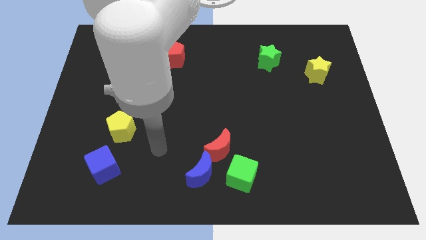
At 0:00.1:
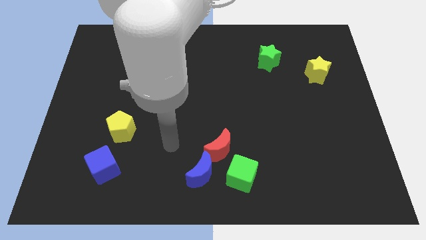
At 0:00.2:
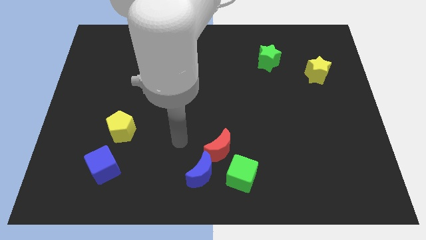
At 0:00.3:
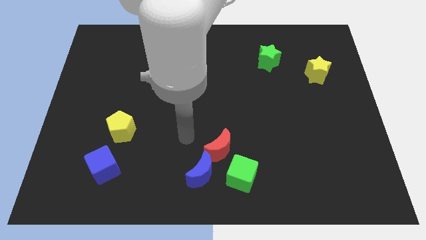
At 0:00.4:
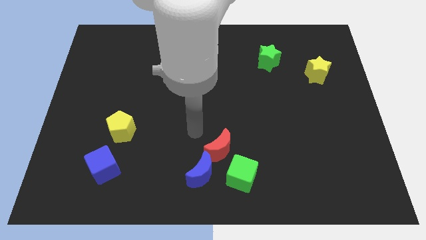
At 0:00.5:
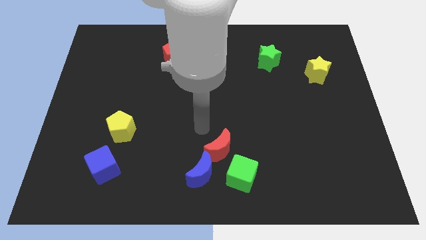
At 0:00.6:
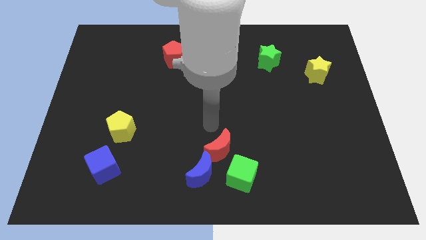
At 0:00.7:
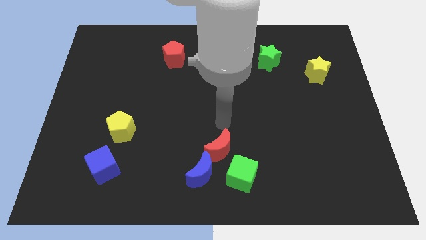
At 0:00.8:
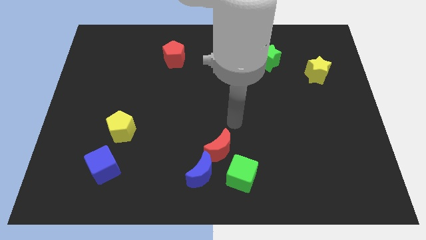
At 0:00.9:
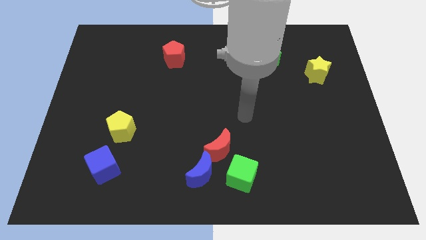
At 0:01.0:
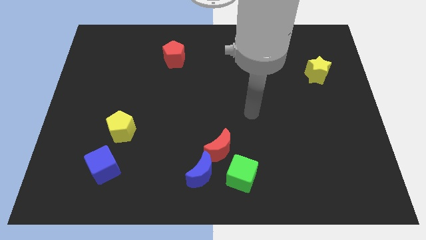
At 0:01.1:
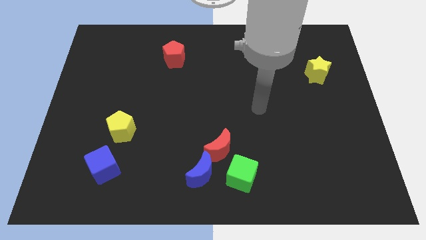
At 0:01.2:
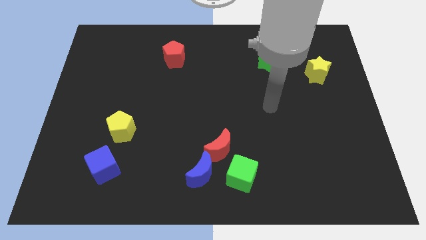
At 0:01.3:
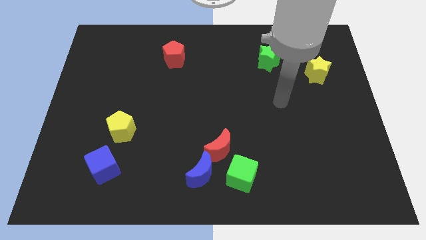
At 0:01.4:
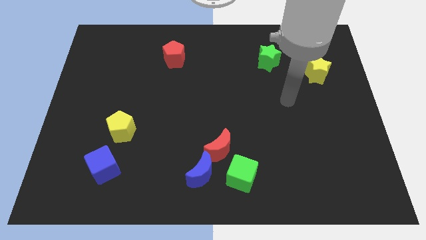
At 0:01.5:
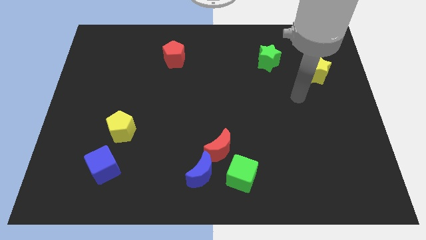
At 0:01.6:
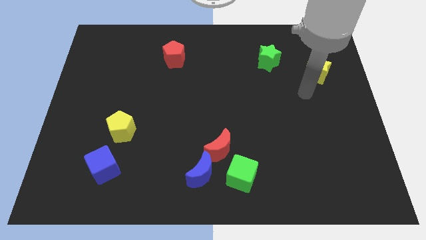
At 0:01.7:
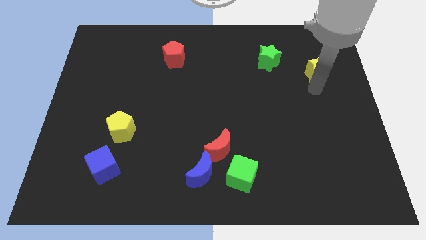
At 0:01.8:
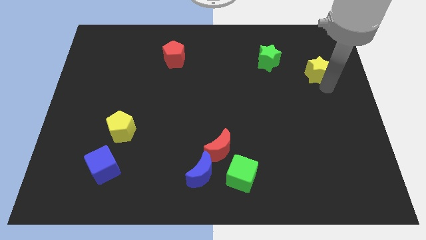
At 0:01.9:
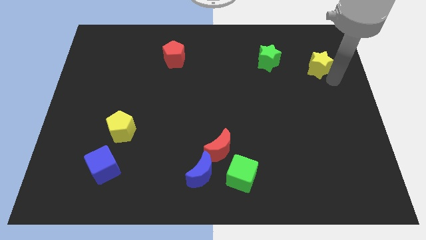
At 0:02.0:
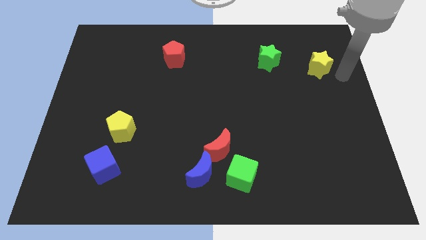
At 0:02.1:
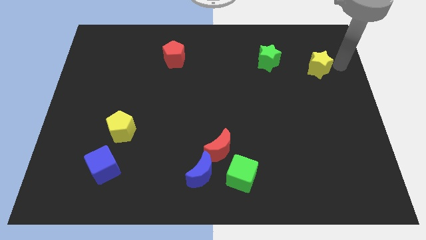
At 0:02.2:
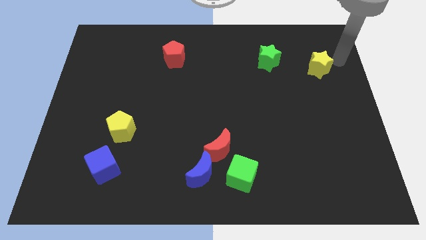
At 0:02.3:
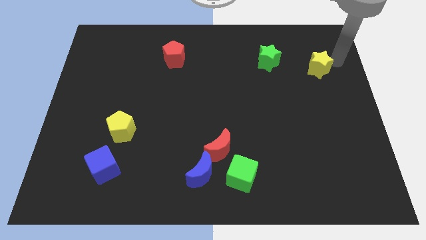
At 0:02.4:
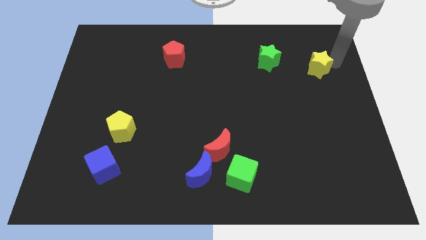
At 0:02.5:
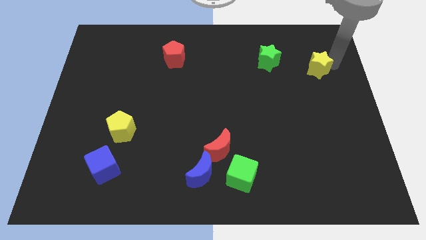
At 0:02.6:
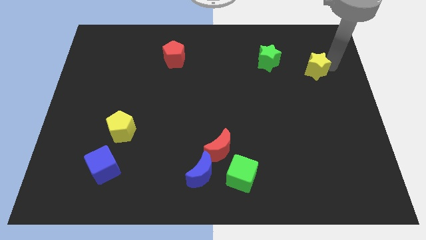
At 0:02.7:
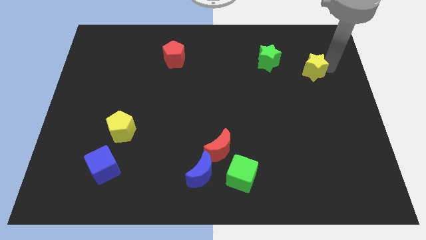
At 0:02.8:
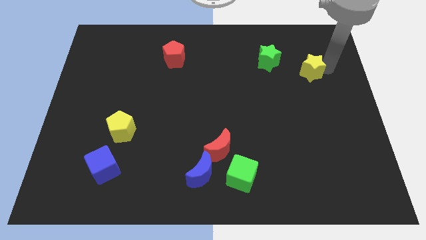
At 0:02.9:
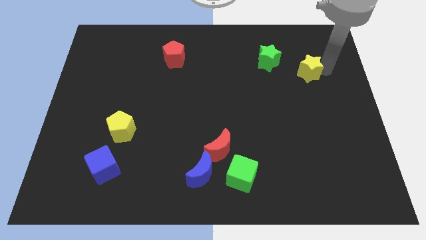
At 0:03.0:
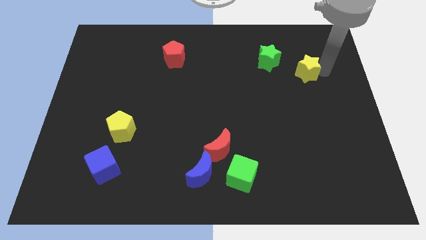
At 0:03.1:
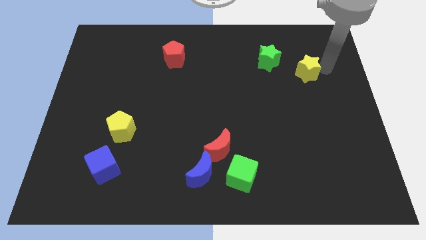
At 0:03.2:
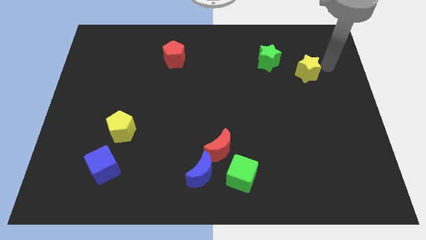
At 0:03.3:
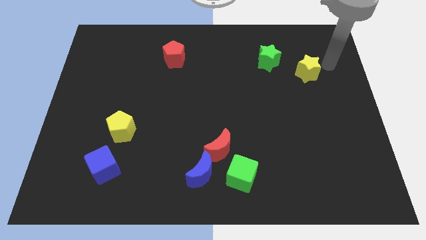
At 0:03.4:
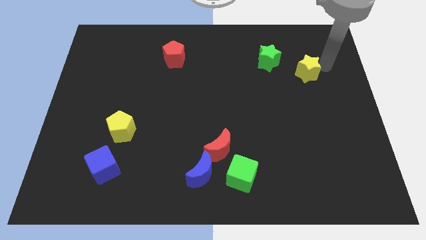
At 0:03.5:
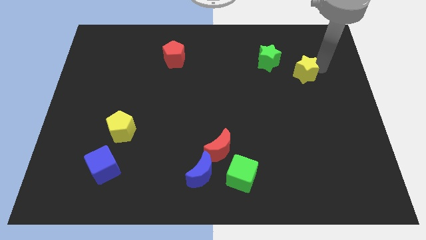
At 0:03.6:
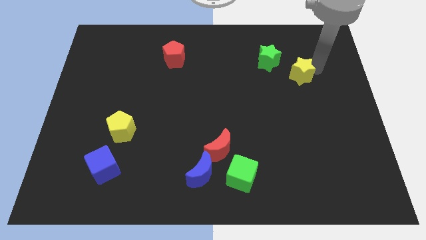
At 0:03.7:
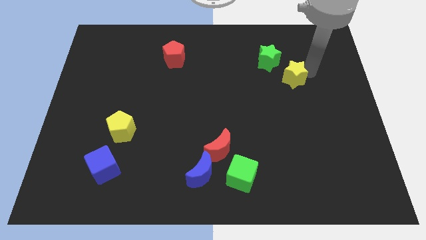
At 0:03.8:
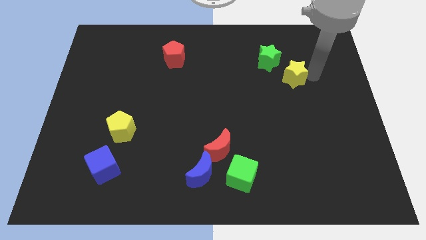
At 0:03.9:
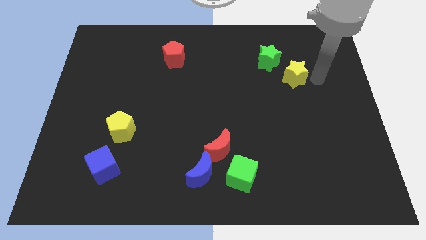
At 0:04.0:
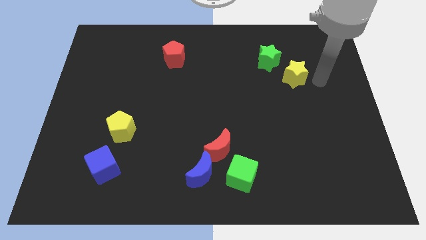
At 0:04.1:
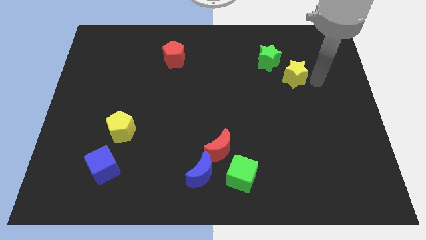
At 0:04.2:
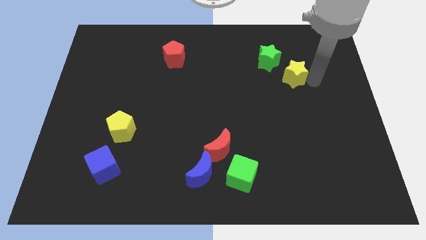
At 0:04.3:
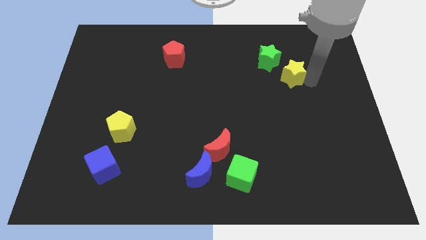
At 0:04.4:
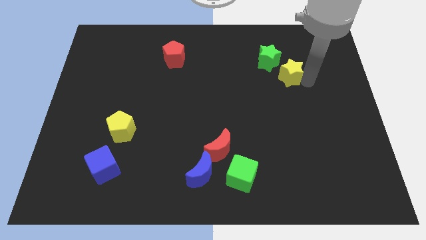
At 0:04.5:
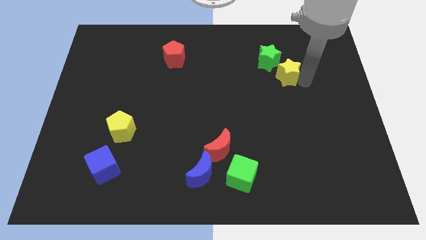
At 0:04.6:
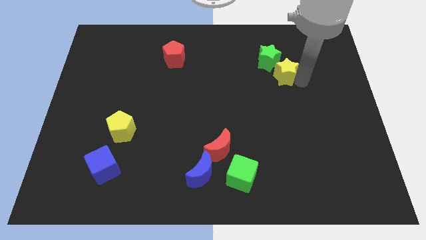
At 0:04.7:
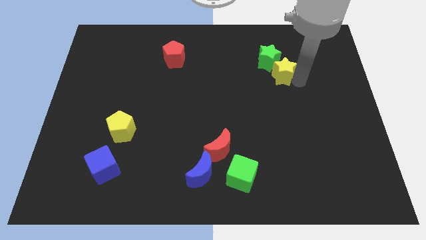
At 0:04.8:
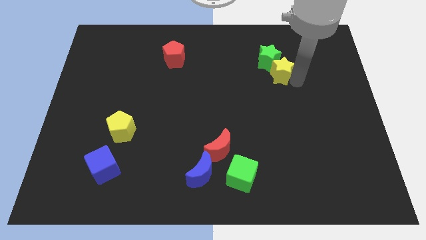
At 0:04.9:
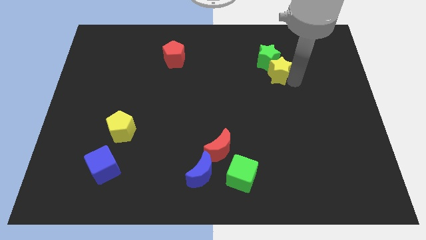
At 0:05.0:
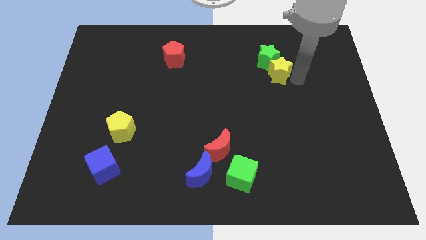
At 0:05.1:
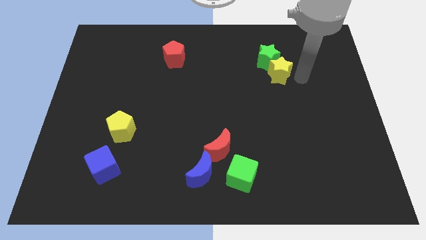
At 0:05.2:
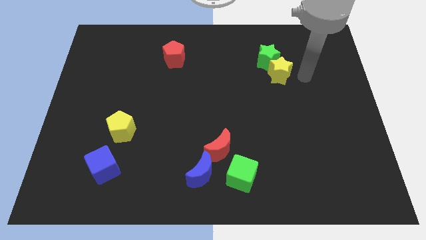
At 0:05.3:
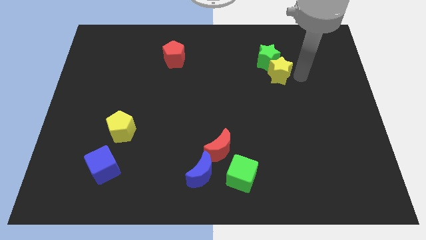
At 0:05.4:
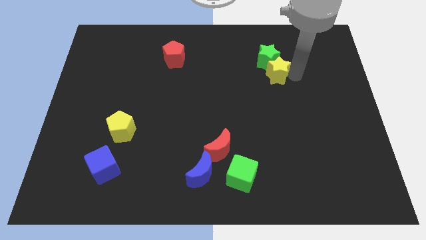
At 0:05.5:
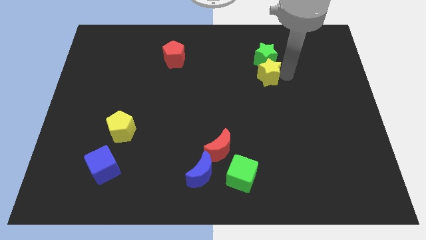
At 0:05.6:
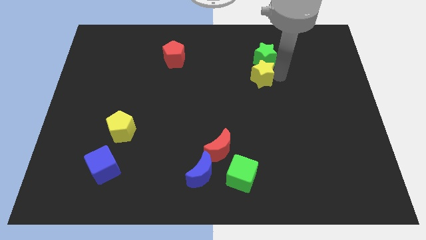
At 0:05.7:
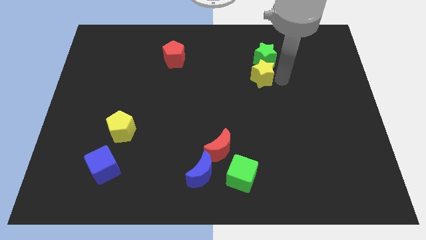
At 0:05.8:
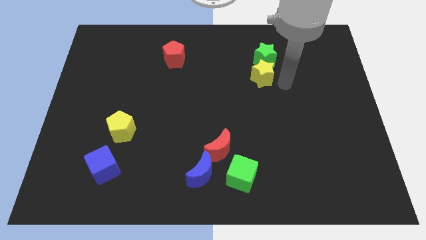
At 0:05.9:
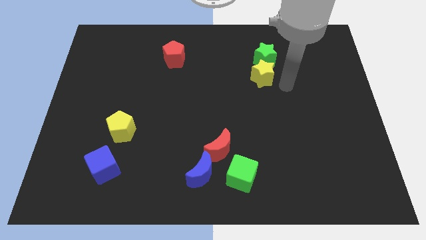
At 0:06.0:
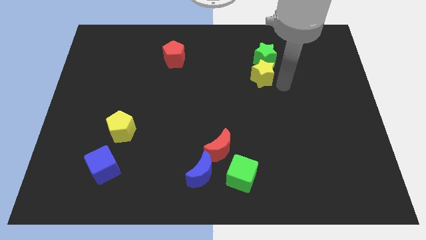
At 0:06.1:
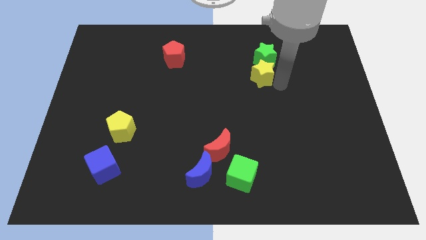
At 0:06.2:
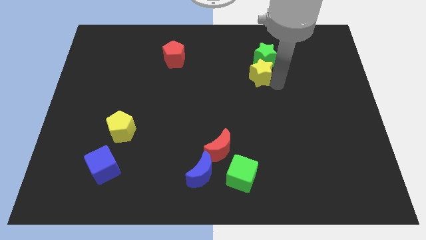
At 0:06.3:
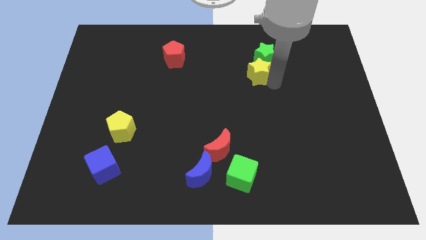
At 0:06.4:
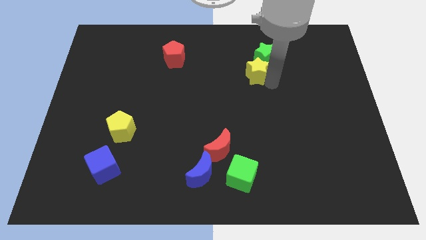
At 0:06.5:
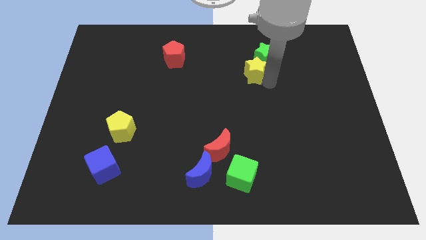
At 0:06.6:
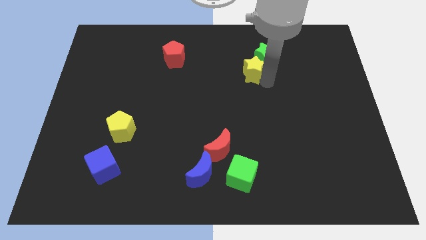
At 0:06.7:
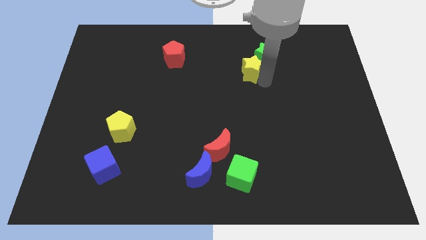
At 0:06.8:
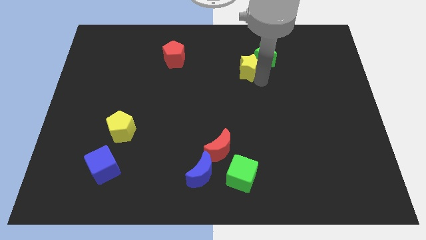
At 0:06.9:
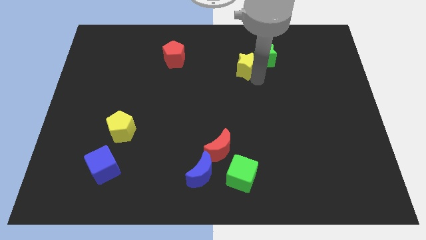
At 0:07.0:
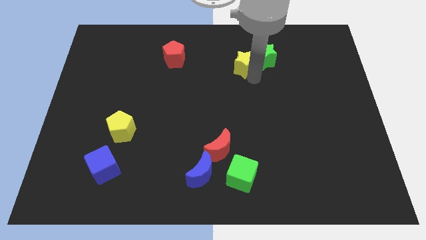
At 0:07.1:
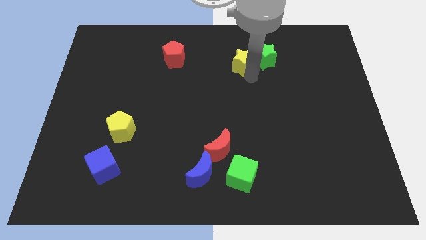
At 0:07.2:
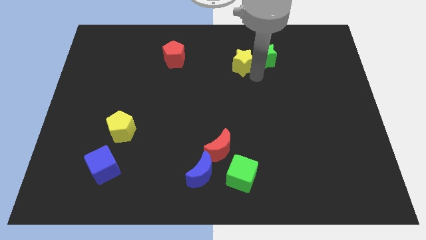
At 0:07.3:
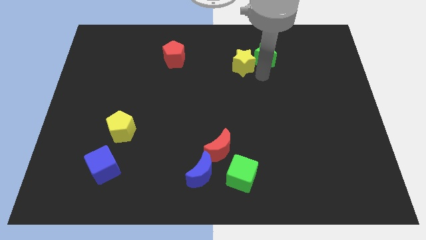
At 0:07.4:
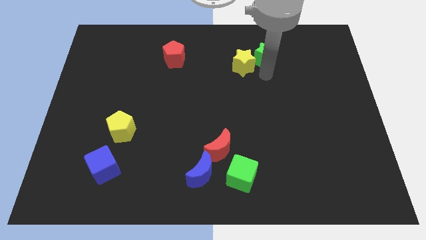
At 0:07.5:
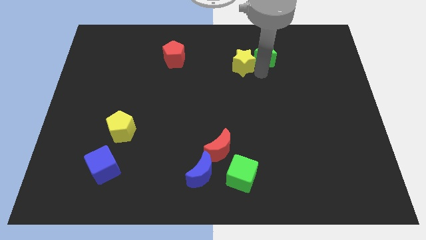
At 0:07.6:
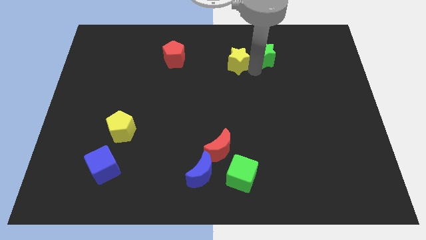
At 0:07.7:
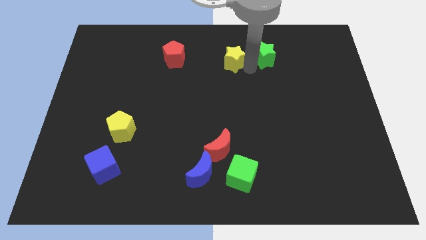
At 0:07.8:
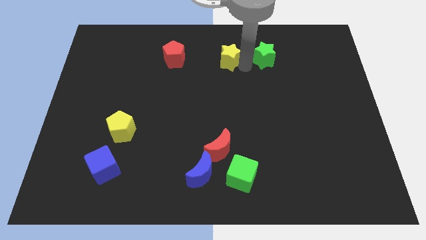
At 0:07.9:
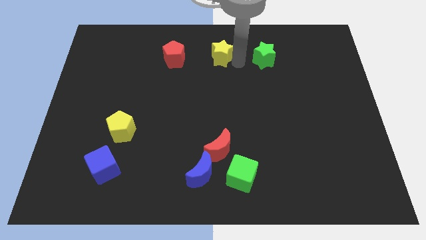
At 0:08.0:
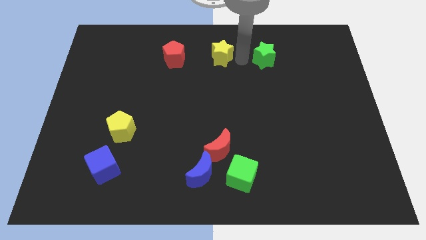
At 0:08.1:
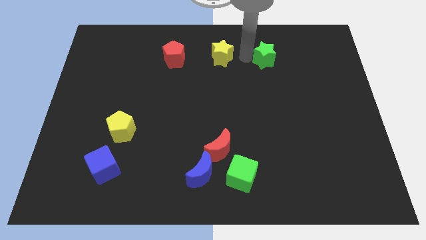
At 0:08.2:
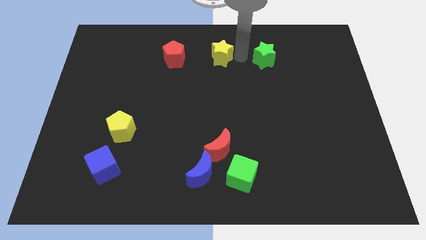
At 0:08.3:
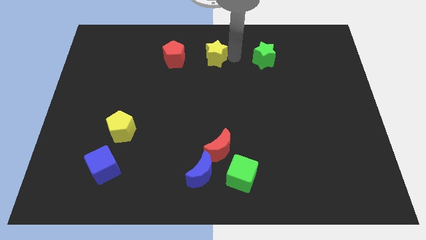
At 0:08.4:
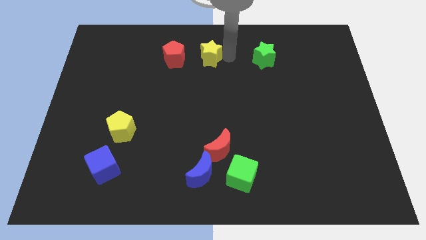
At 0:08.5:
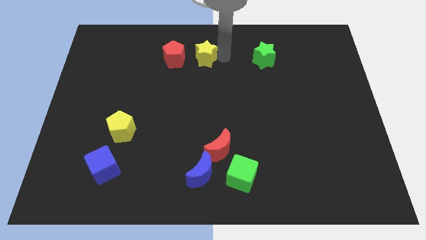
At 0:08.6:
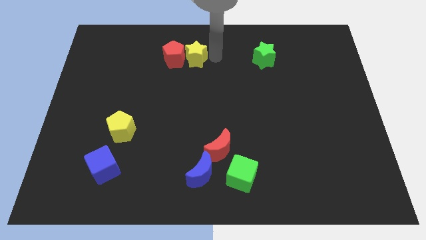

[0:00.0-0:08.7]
move the yellow star close to the red pentagon
